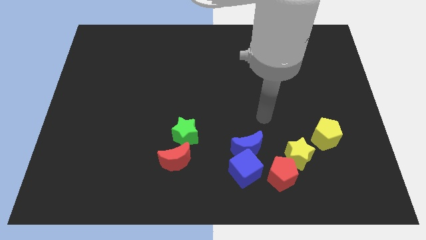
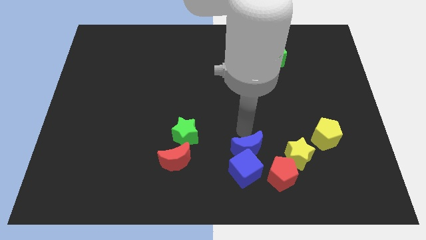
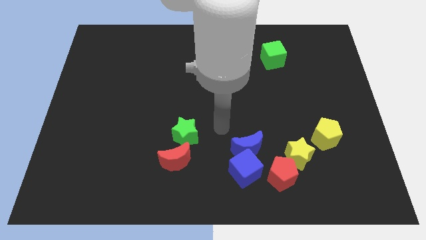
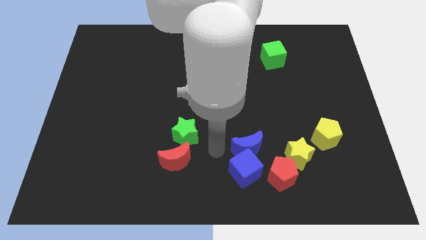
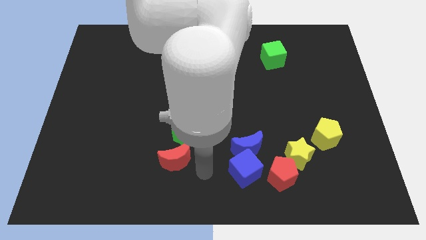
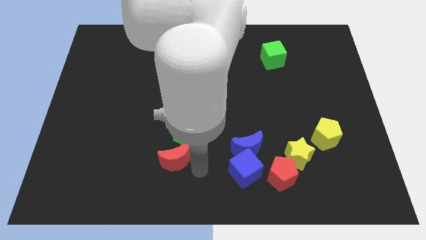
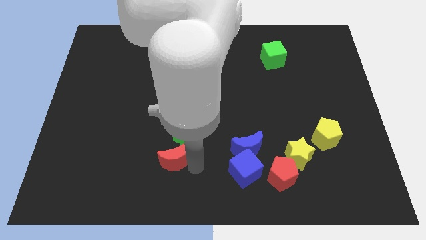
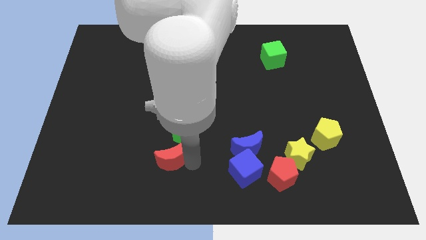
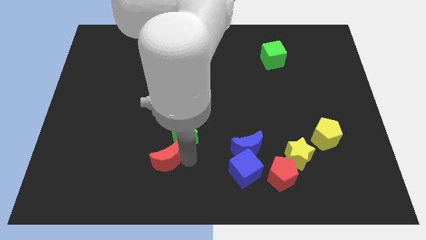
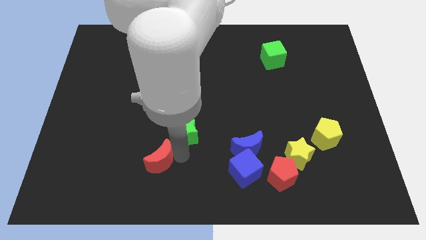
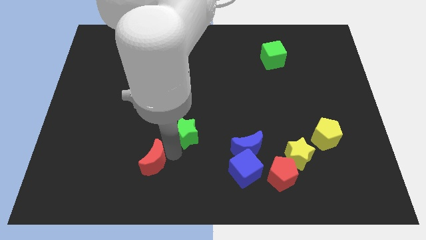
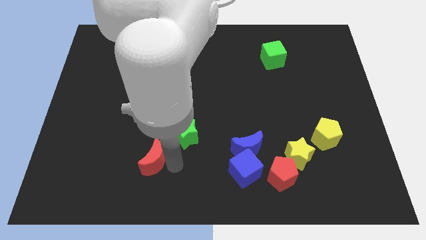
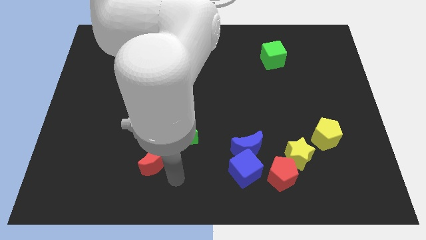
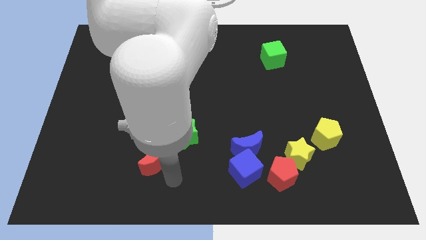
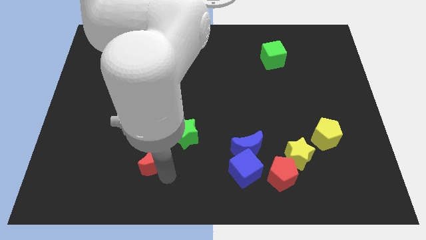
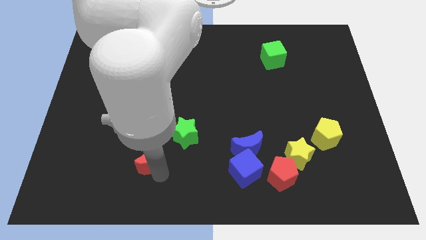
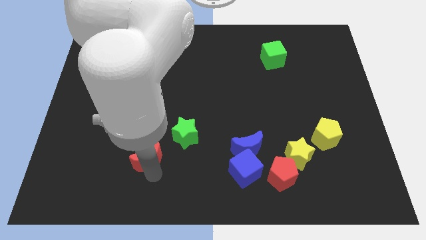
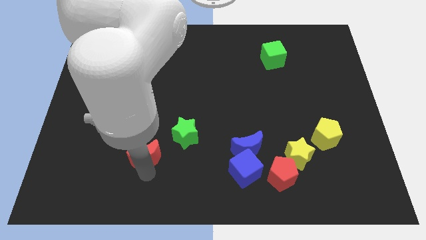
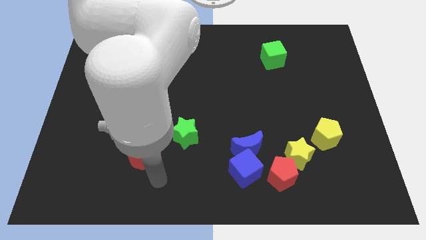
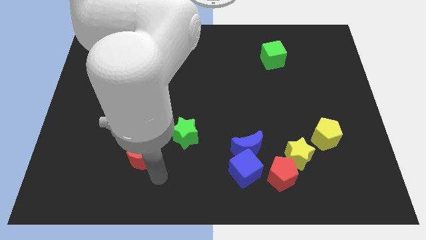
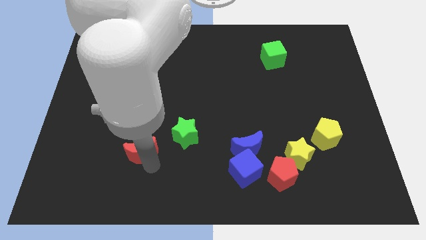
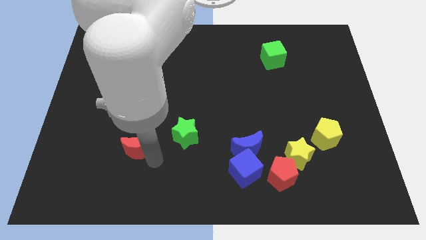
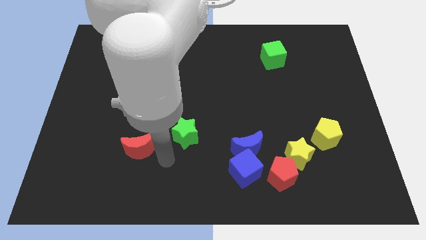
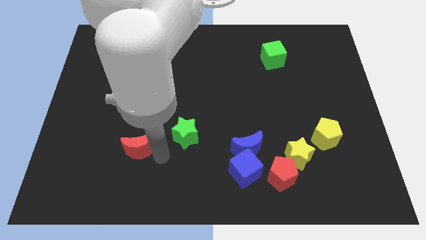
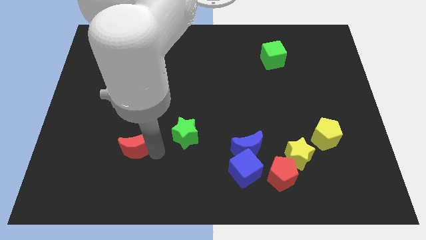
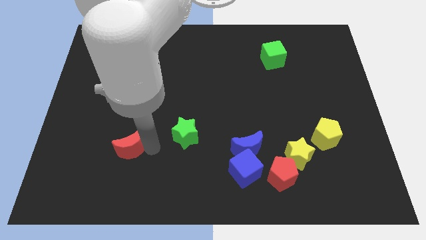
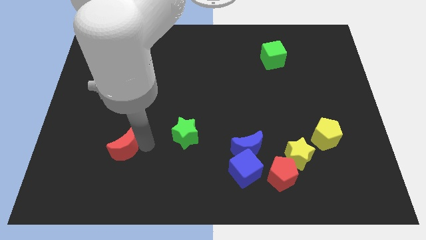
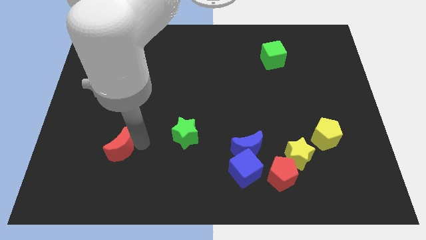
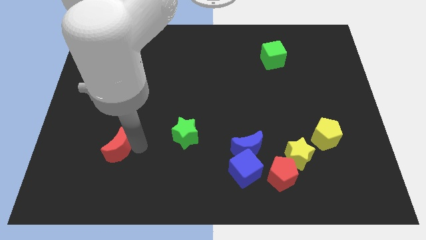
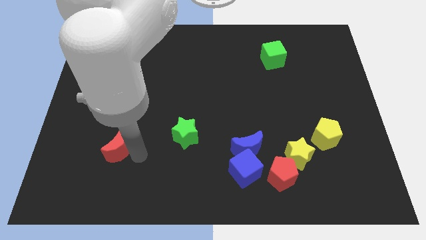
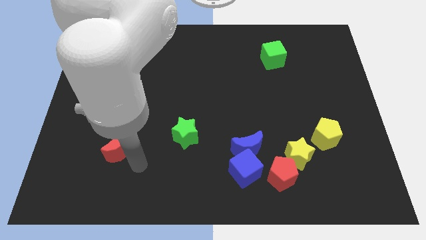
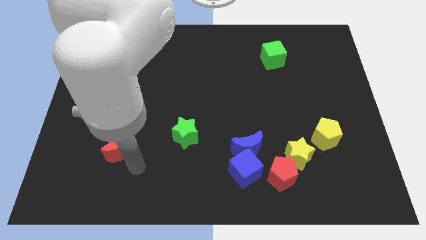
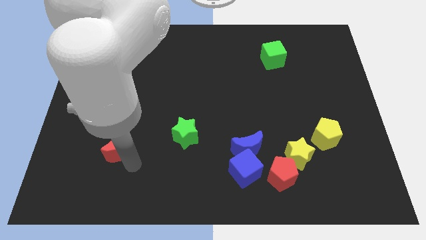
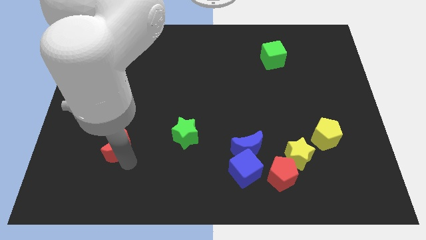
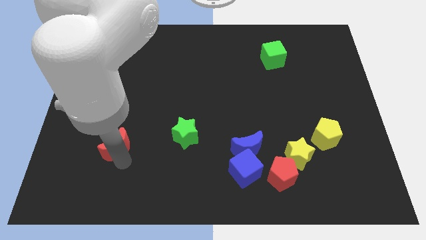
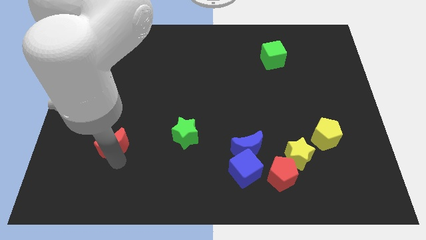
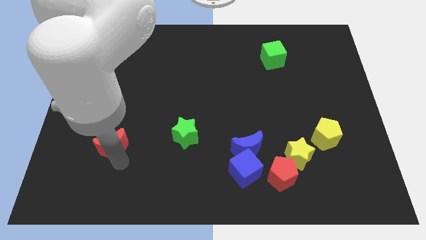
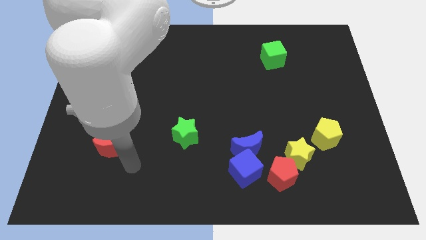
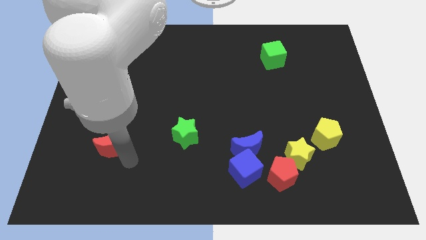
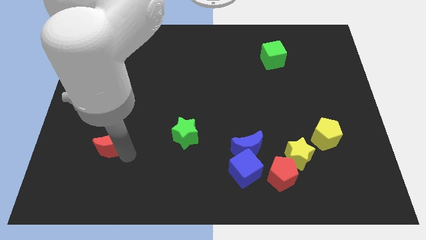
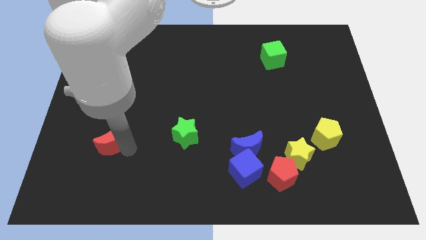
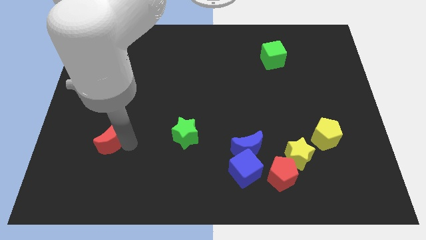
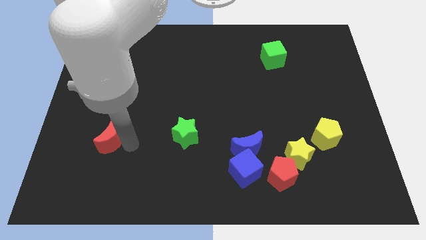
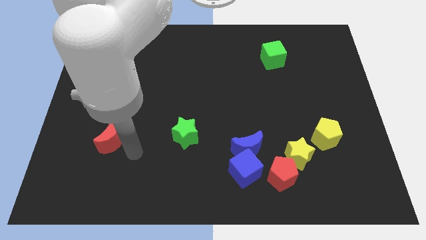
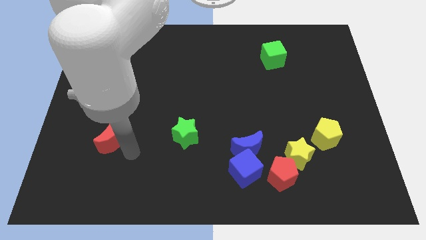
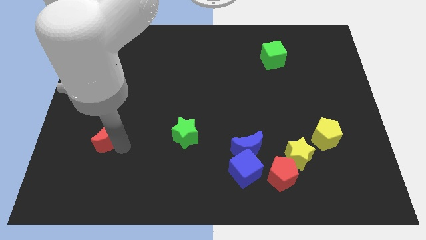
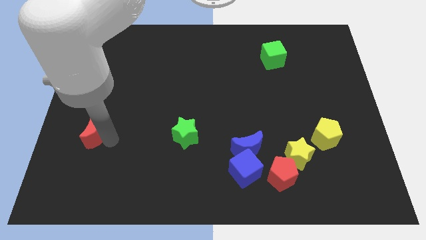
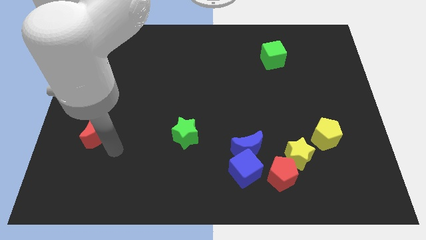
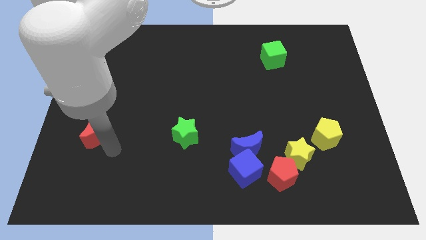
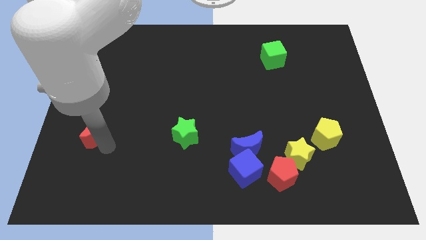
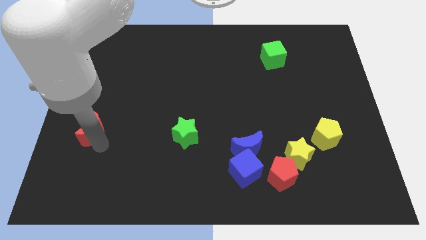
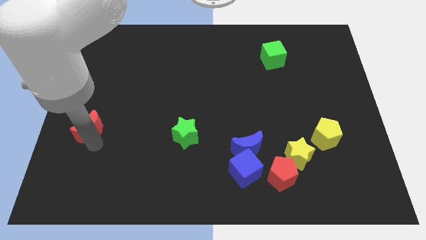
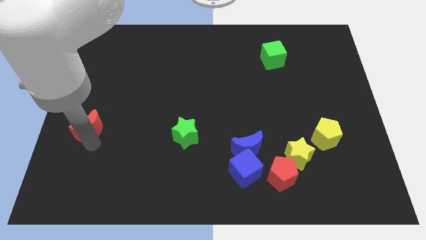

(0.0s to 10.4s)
put the red moon to the left side
